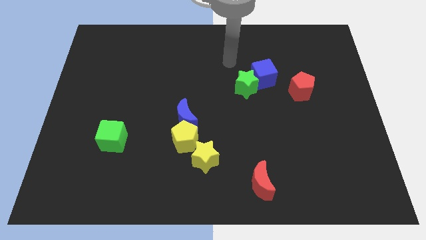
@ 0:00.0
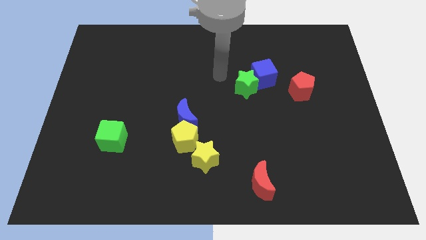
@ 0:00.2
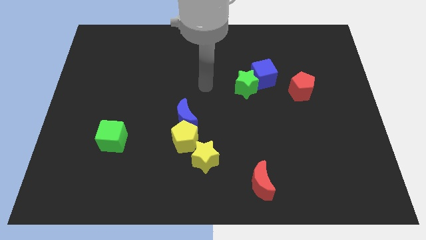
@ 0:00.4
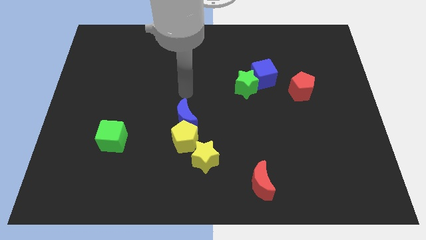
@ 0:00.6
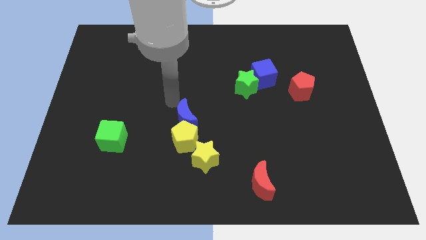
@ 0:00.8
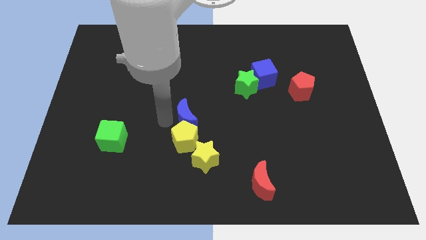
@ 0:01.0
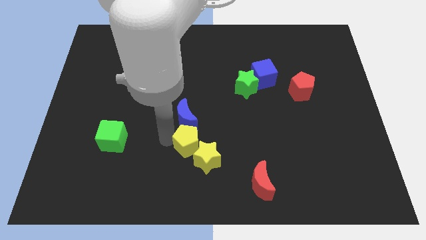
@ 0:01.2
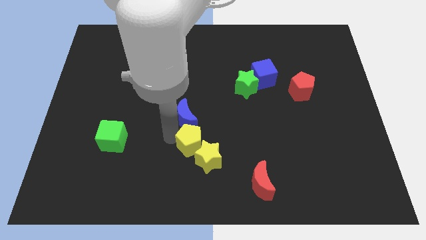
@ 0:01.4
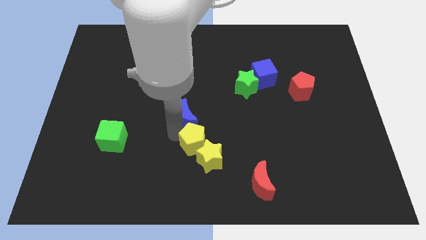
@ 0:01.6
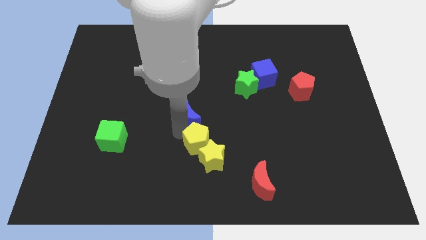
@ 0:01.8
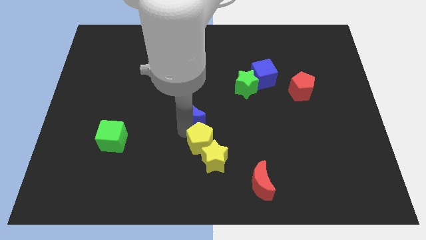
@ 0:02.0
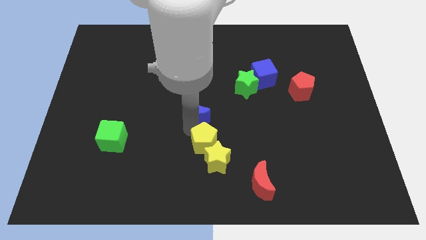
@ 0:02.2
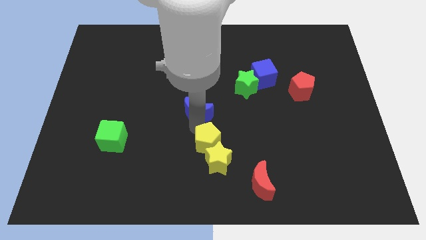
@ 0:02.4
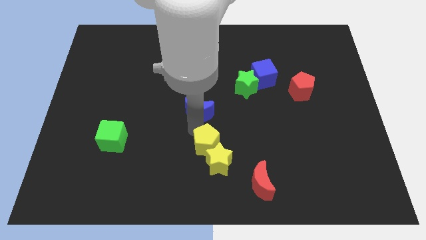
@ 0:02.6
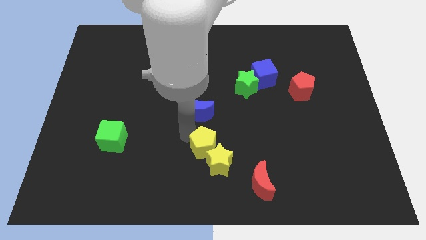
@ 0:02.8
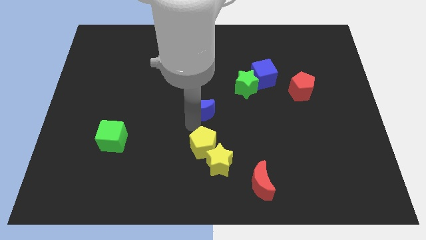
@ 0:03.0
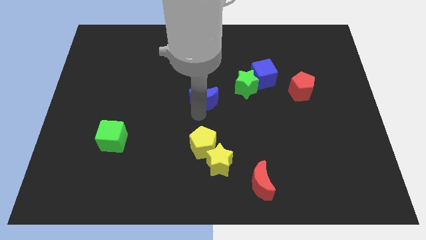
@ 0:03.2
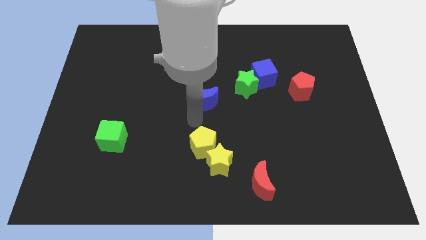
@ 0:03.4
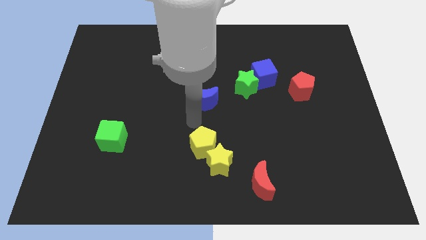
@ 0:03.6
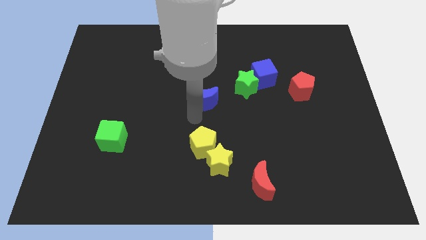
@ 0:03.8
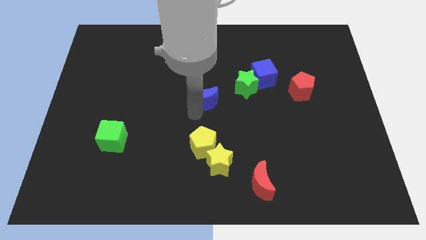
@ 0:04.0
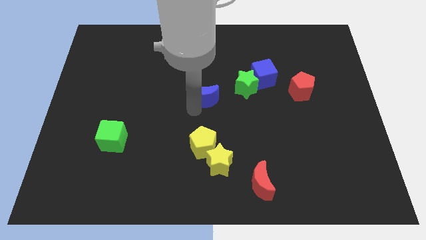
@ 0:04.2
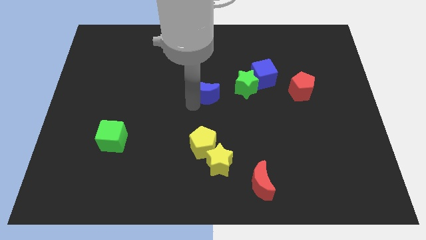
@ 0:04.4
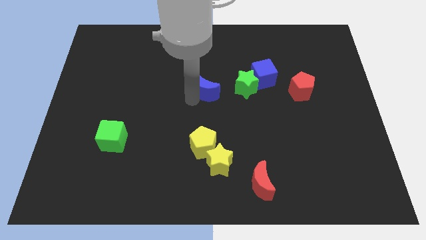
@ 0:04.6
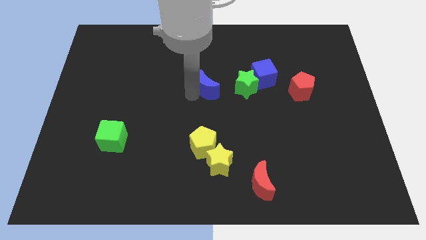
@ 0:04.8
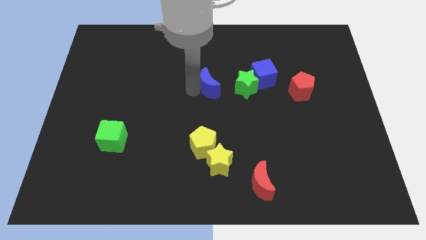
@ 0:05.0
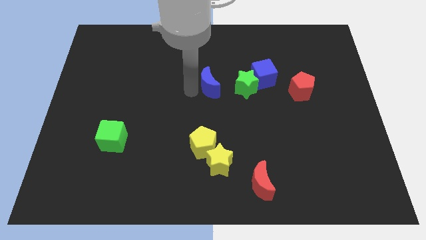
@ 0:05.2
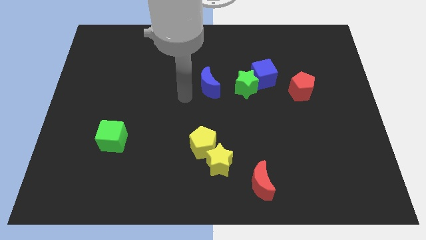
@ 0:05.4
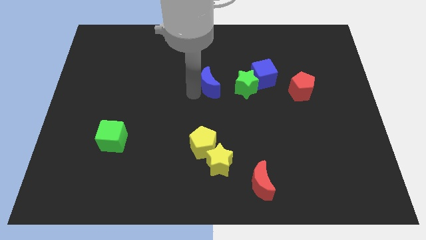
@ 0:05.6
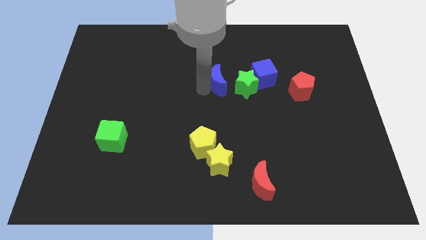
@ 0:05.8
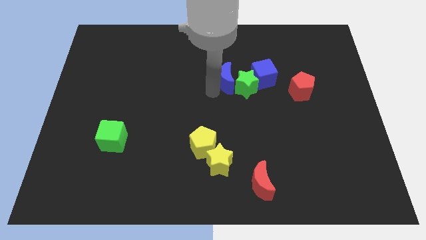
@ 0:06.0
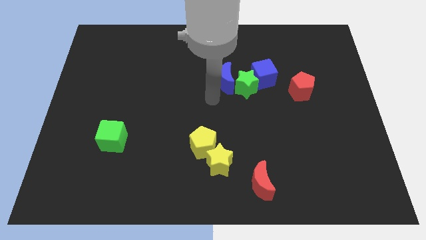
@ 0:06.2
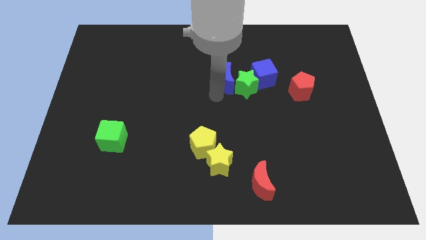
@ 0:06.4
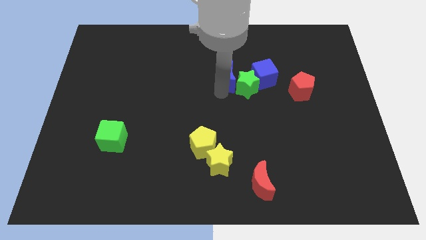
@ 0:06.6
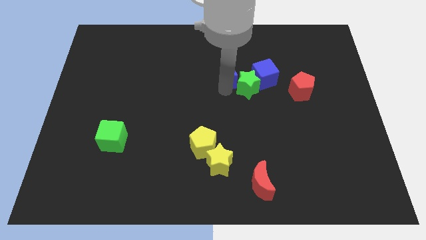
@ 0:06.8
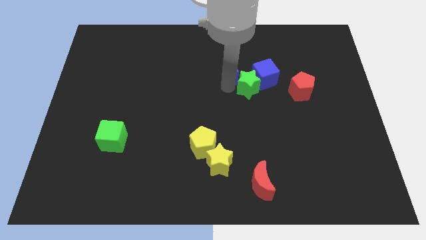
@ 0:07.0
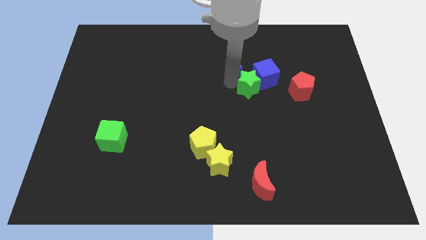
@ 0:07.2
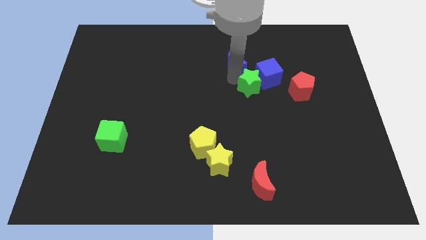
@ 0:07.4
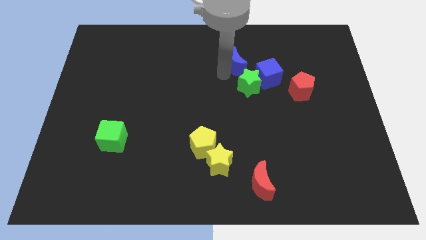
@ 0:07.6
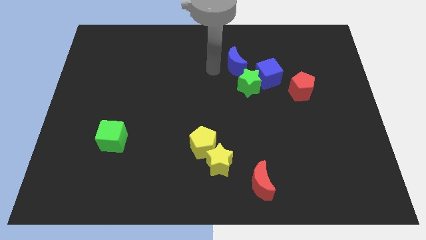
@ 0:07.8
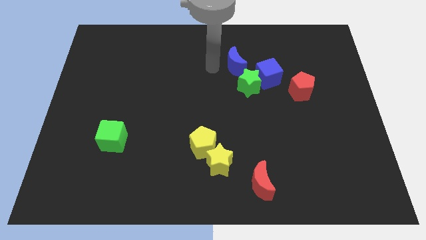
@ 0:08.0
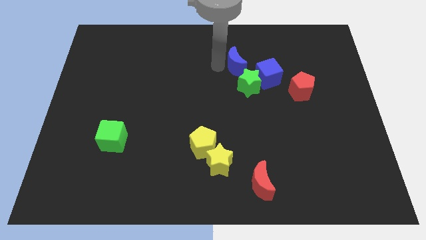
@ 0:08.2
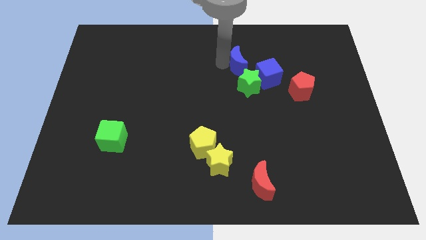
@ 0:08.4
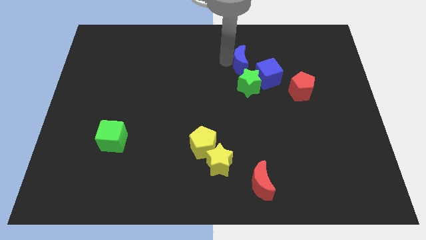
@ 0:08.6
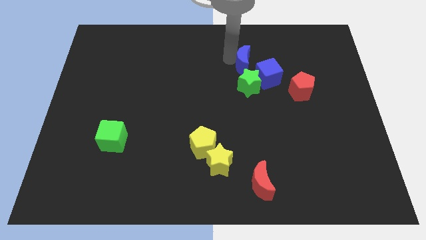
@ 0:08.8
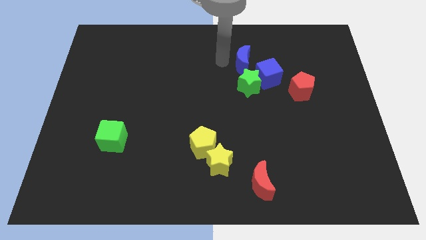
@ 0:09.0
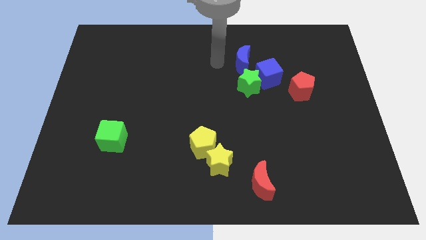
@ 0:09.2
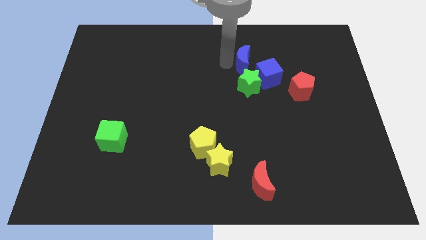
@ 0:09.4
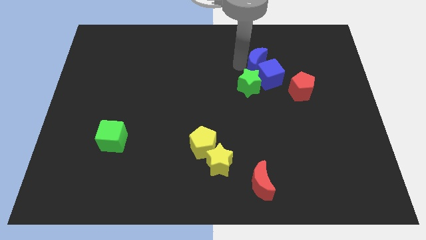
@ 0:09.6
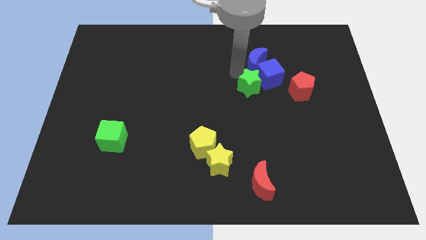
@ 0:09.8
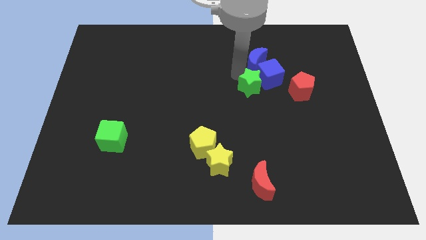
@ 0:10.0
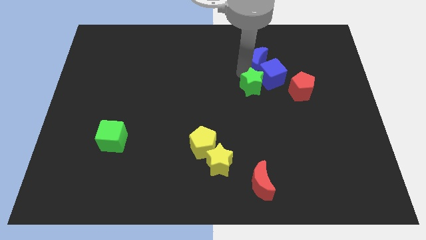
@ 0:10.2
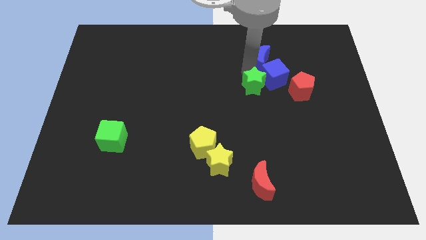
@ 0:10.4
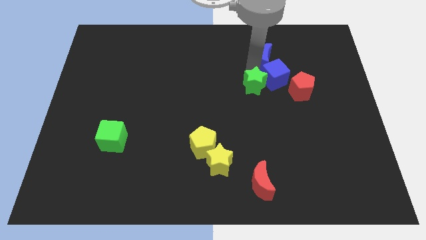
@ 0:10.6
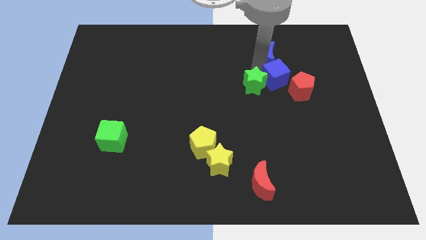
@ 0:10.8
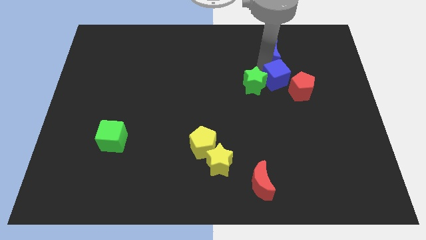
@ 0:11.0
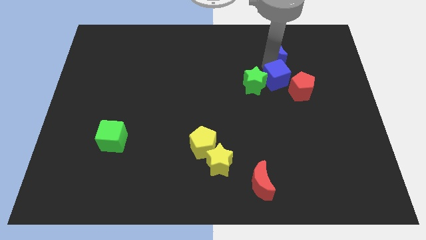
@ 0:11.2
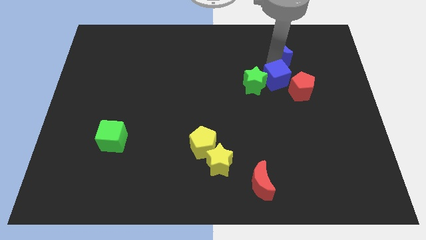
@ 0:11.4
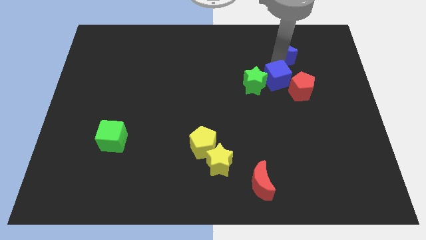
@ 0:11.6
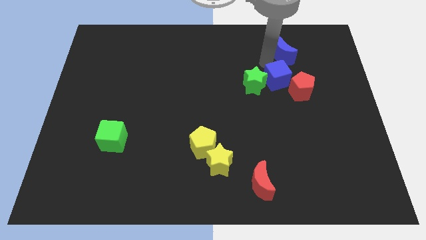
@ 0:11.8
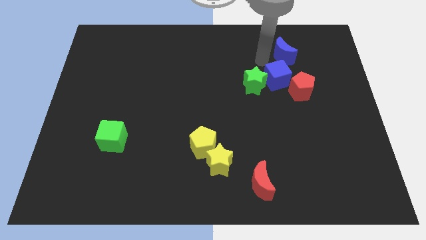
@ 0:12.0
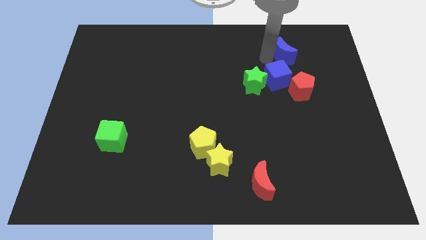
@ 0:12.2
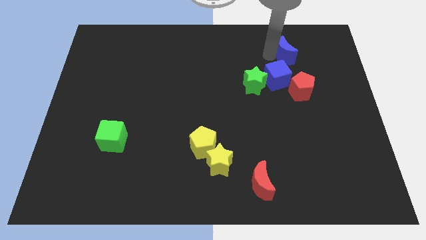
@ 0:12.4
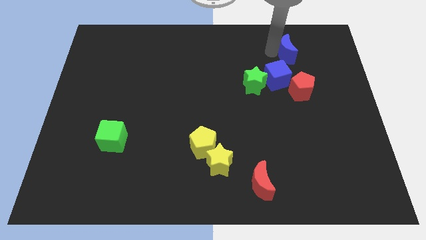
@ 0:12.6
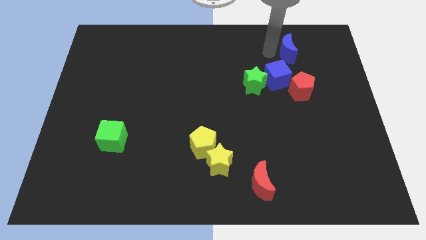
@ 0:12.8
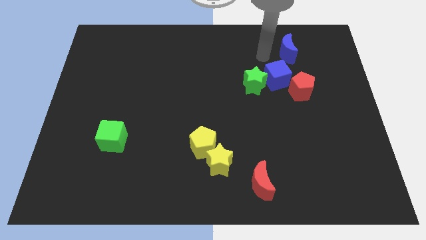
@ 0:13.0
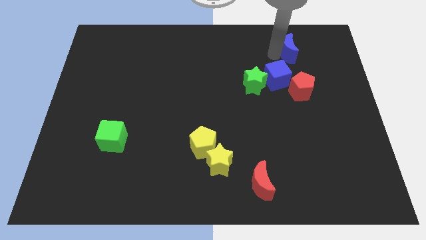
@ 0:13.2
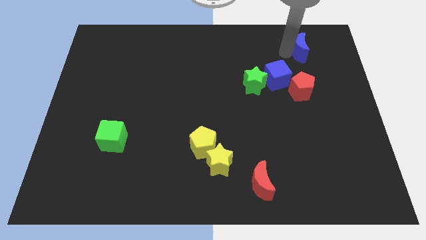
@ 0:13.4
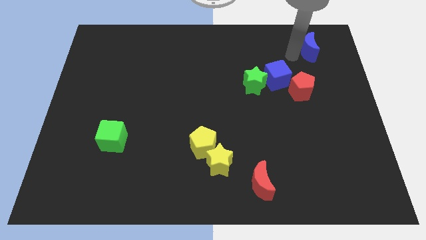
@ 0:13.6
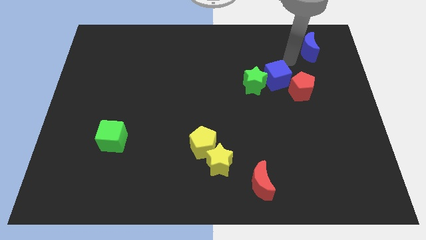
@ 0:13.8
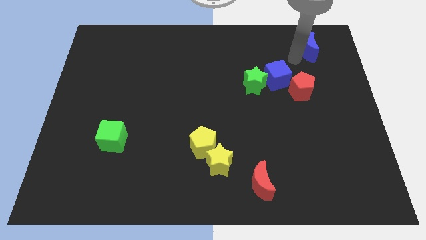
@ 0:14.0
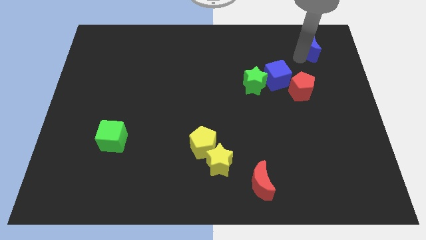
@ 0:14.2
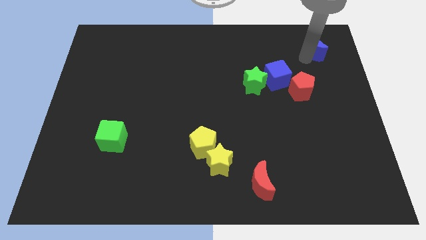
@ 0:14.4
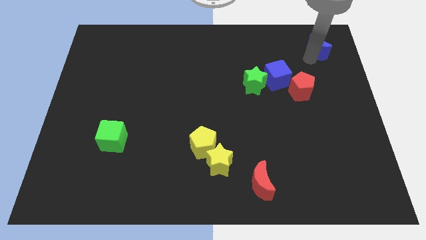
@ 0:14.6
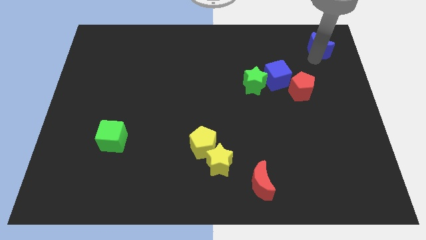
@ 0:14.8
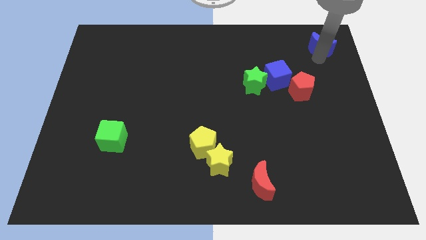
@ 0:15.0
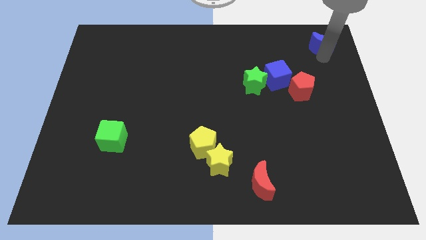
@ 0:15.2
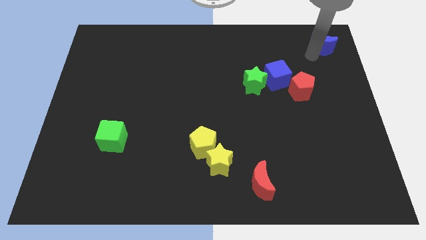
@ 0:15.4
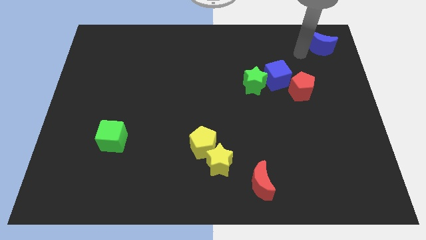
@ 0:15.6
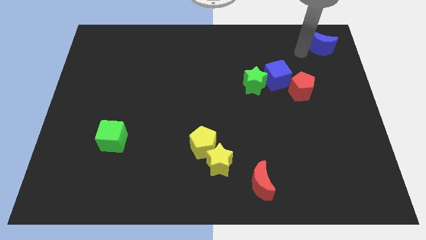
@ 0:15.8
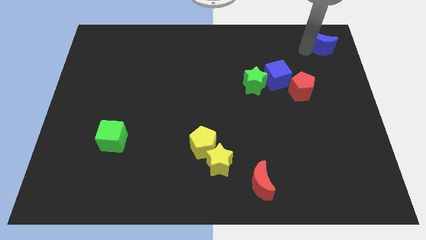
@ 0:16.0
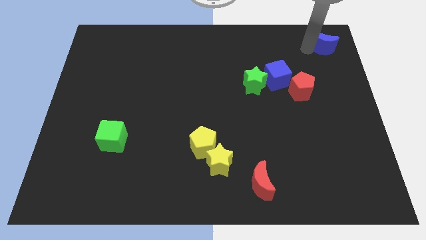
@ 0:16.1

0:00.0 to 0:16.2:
move the blue moon to the top right of the board
